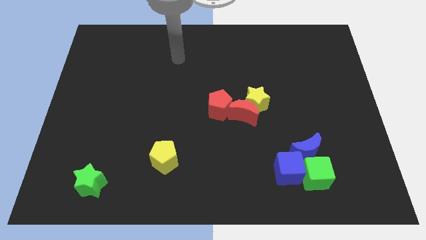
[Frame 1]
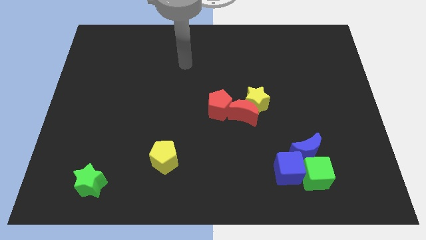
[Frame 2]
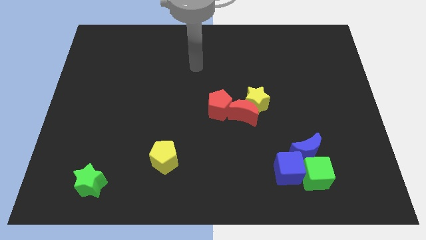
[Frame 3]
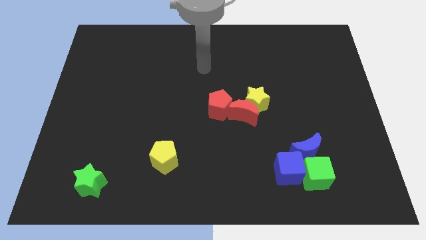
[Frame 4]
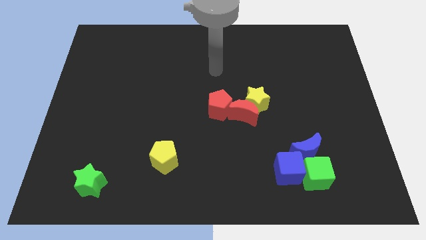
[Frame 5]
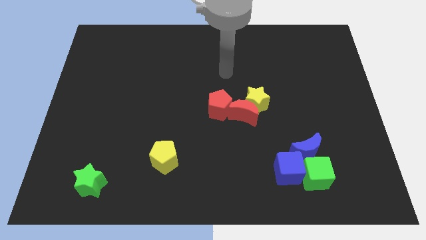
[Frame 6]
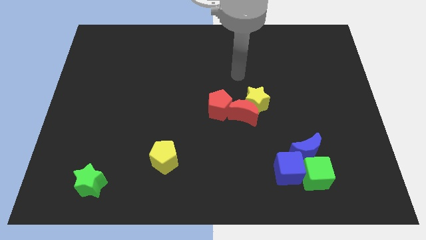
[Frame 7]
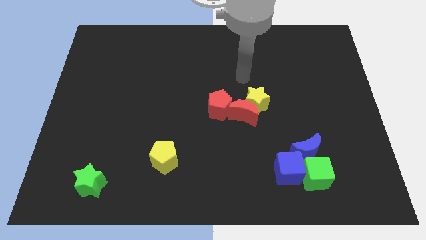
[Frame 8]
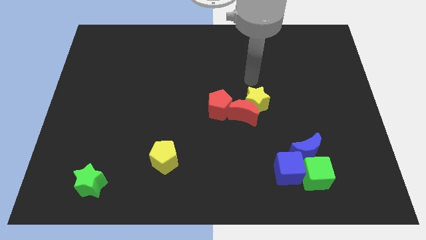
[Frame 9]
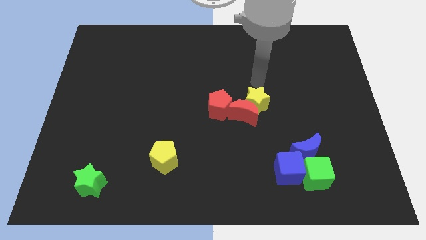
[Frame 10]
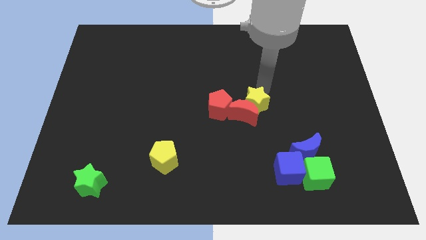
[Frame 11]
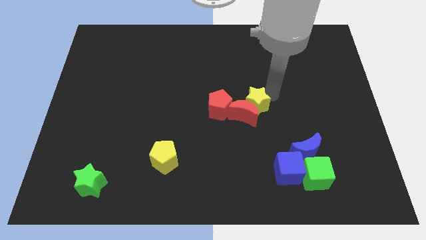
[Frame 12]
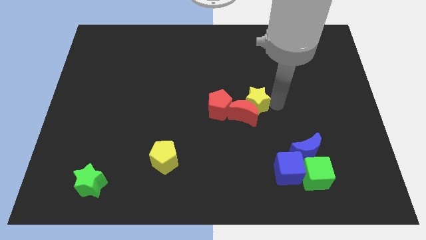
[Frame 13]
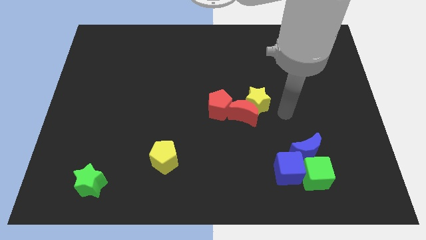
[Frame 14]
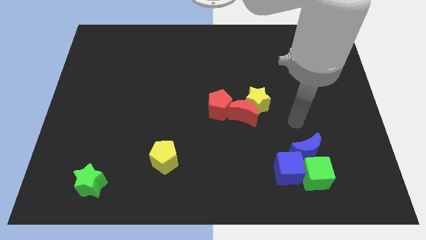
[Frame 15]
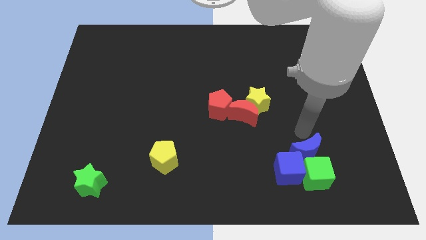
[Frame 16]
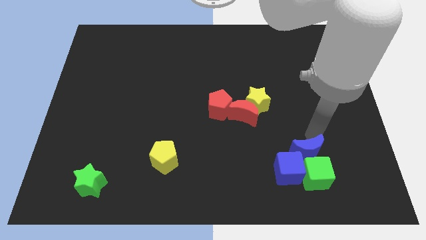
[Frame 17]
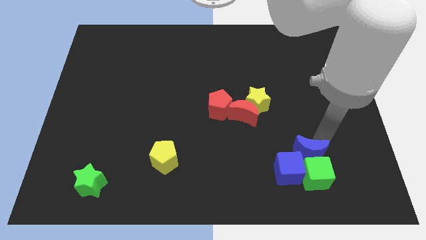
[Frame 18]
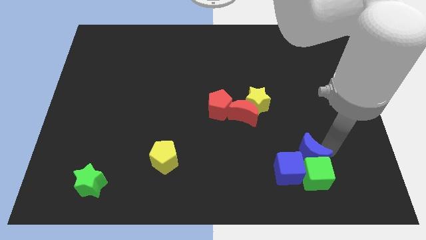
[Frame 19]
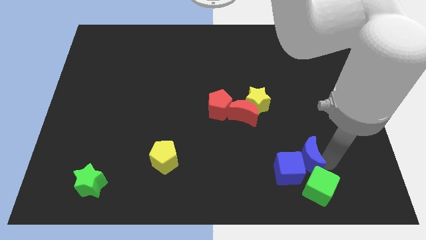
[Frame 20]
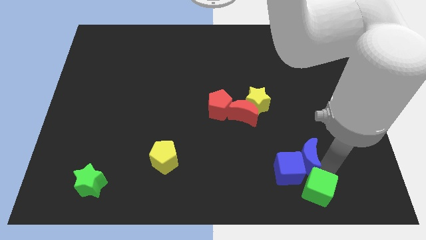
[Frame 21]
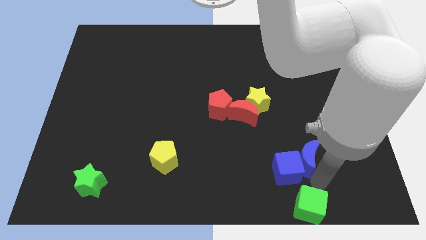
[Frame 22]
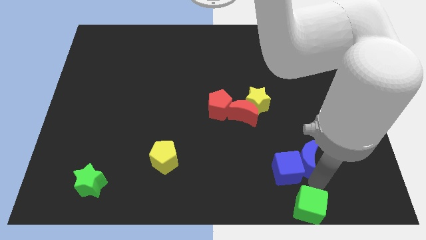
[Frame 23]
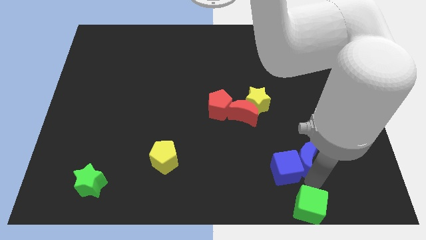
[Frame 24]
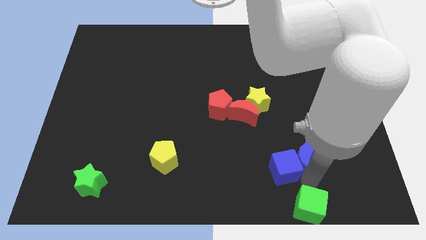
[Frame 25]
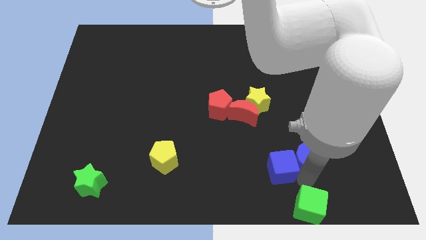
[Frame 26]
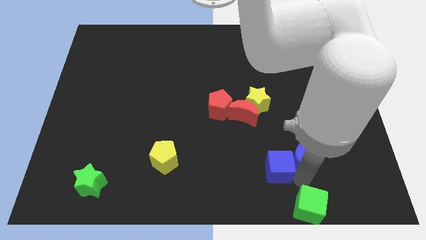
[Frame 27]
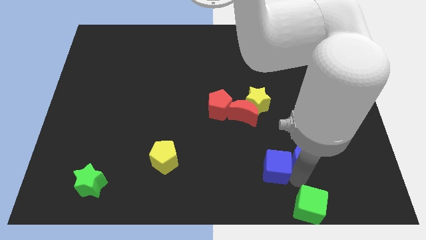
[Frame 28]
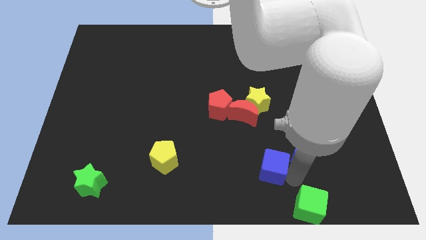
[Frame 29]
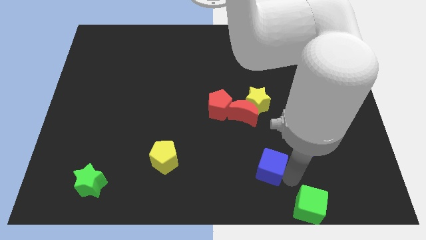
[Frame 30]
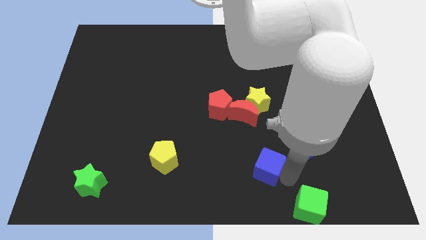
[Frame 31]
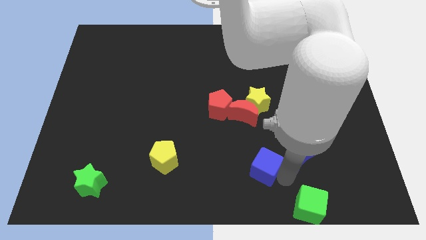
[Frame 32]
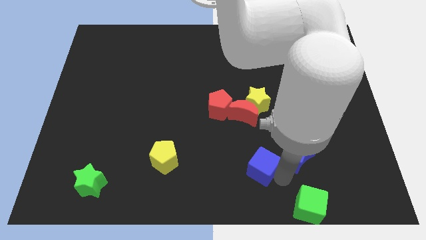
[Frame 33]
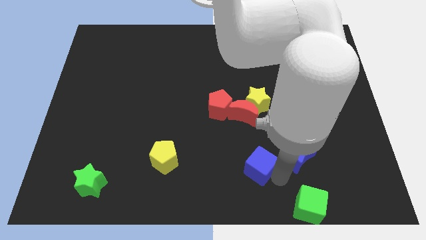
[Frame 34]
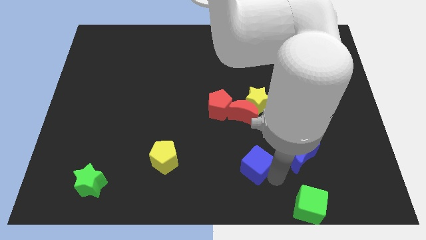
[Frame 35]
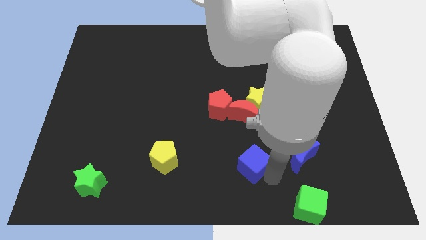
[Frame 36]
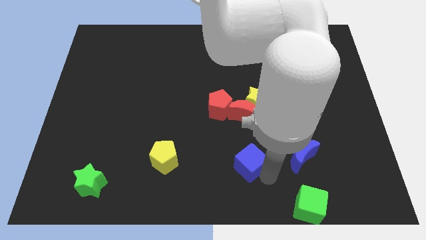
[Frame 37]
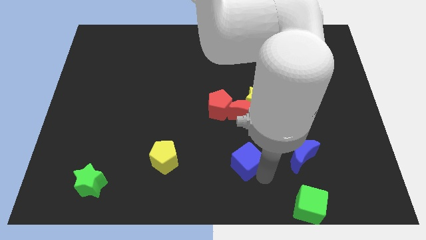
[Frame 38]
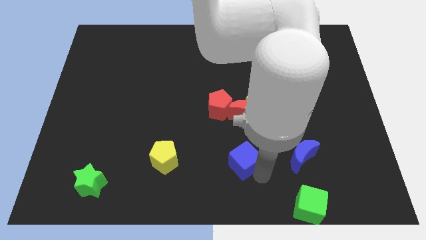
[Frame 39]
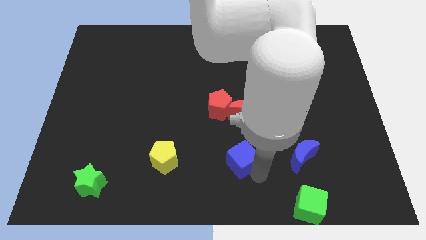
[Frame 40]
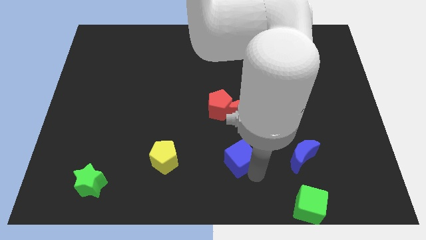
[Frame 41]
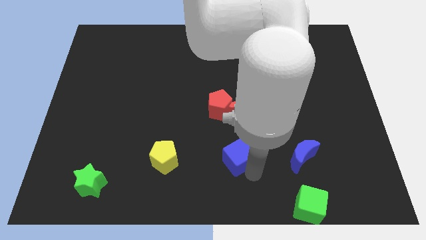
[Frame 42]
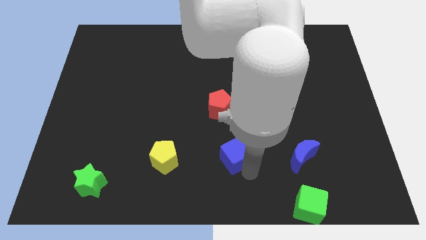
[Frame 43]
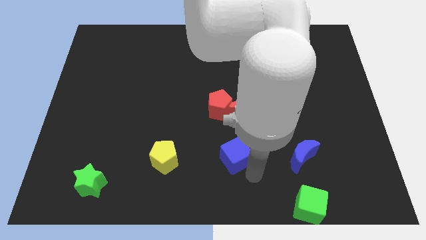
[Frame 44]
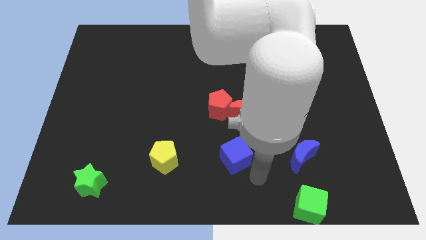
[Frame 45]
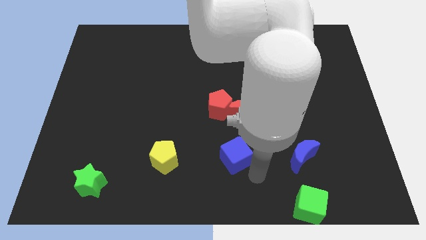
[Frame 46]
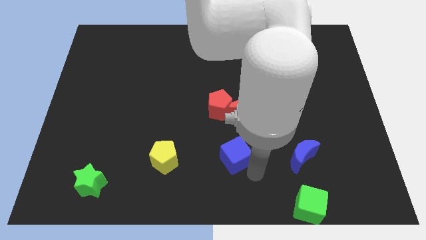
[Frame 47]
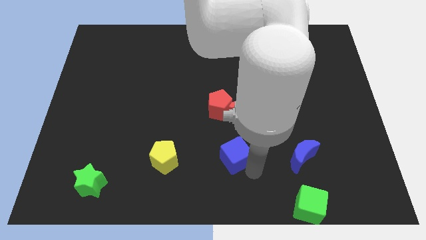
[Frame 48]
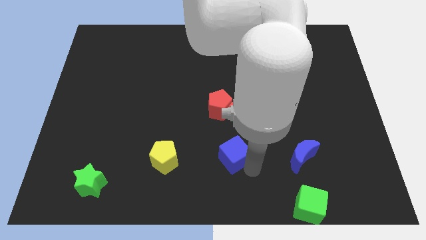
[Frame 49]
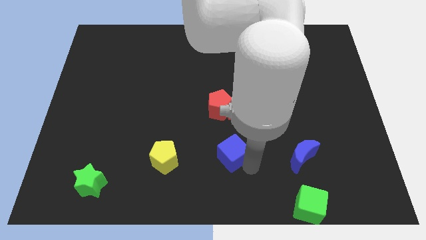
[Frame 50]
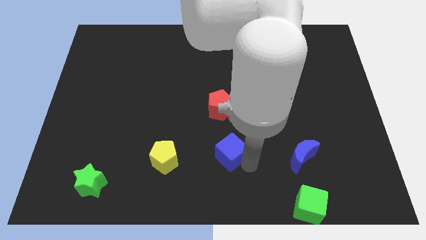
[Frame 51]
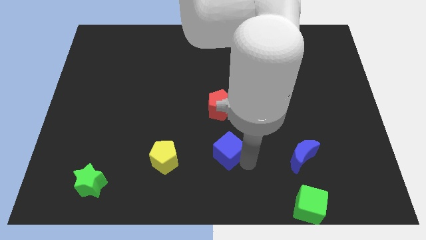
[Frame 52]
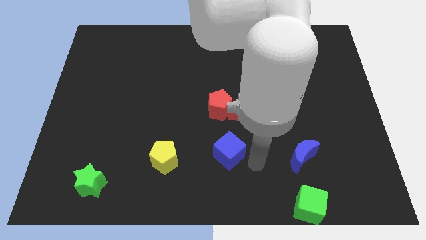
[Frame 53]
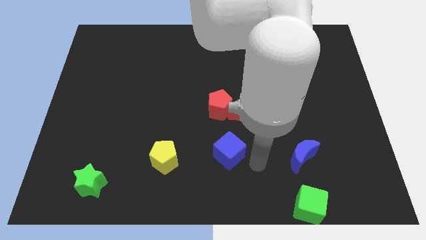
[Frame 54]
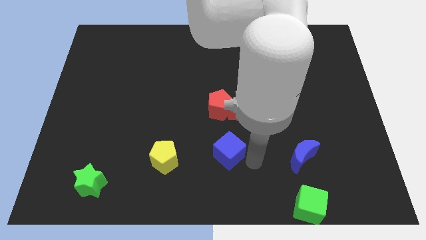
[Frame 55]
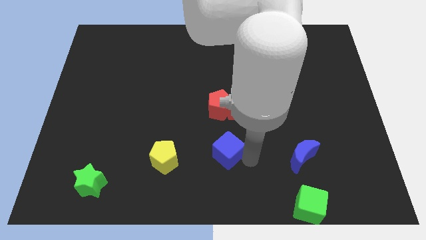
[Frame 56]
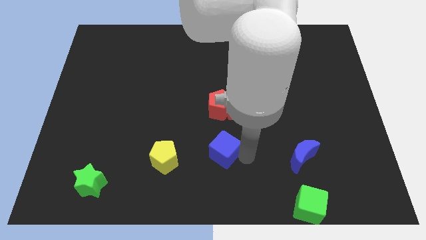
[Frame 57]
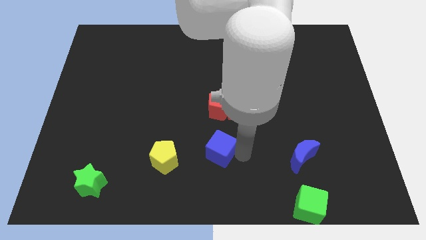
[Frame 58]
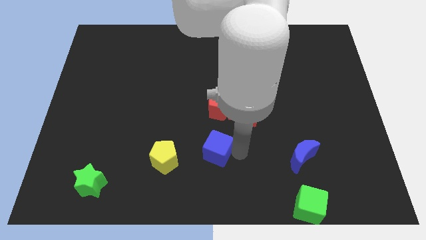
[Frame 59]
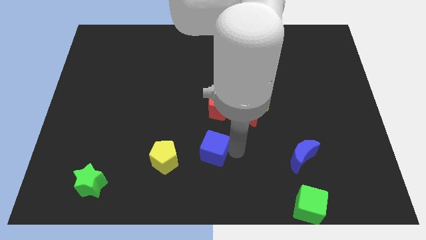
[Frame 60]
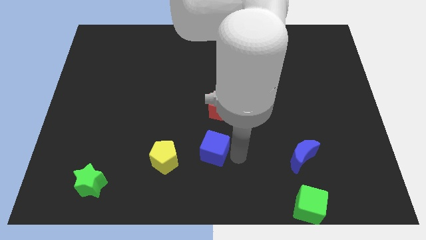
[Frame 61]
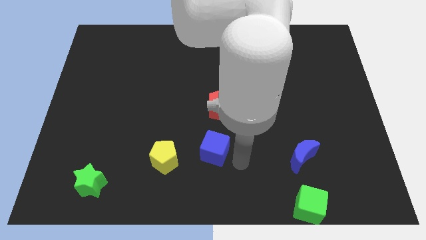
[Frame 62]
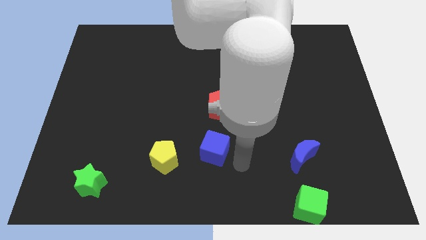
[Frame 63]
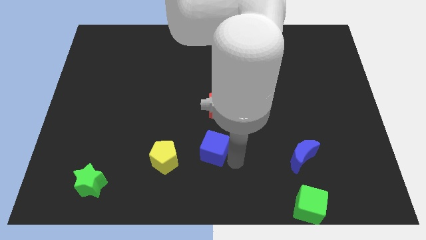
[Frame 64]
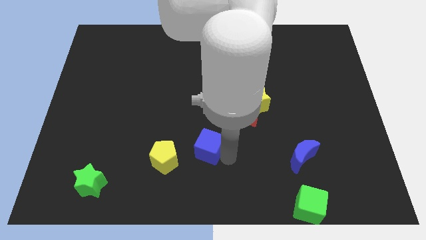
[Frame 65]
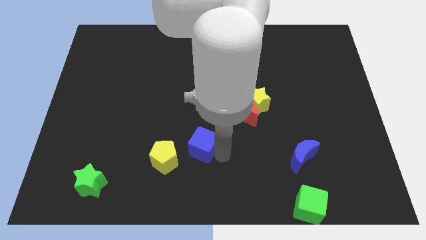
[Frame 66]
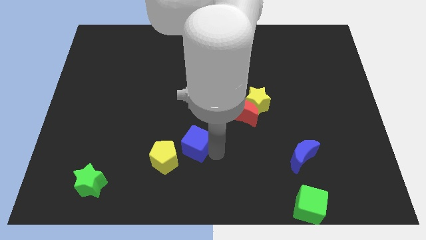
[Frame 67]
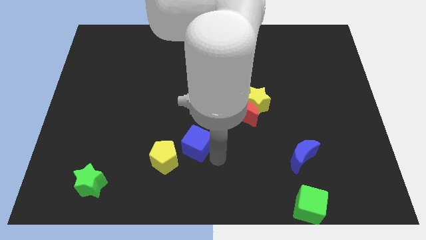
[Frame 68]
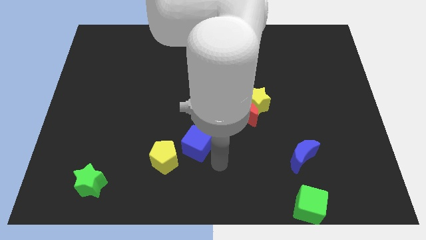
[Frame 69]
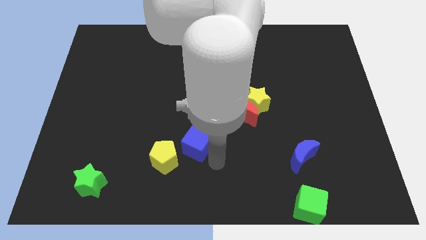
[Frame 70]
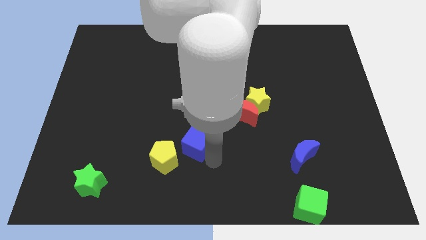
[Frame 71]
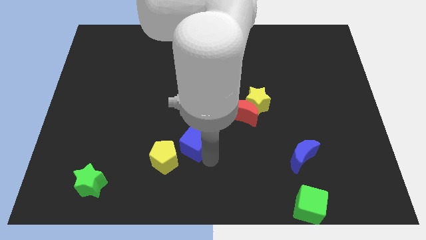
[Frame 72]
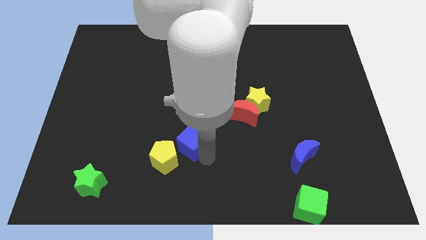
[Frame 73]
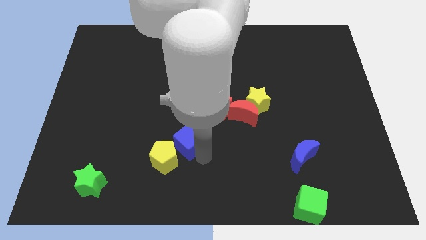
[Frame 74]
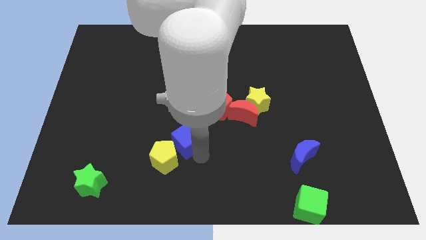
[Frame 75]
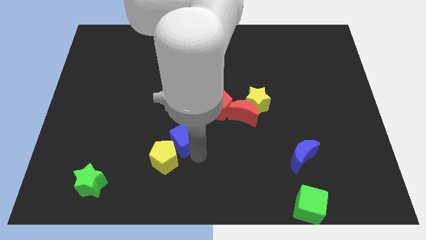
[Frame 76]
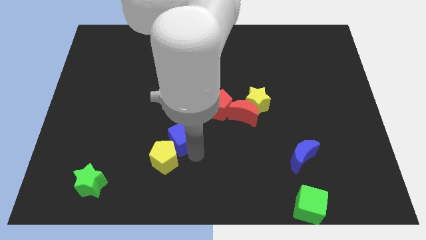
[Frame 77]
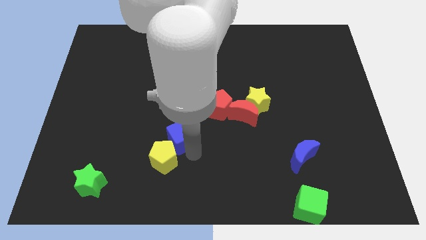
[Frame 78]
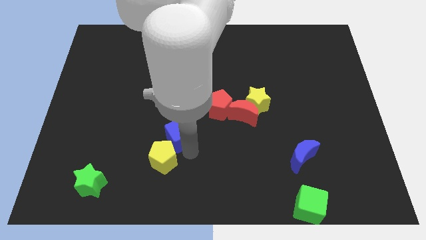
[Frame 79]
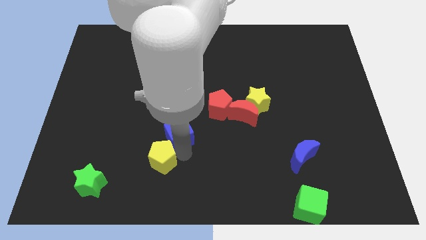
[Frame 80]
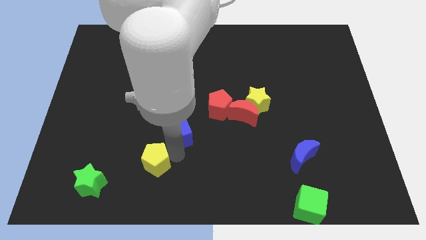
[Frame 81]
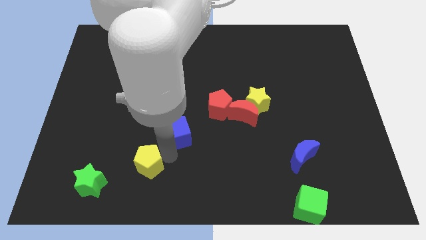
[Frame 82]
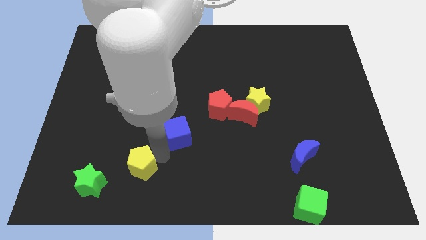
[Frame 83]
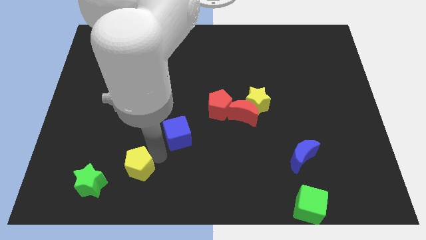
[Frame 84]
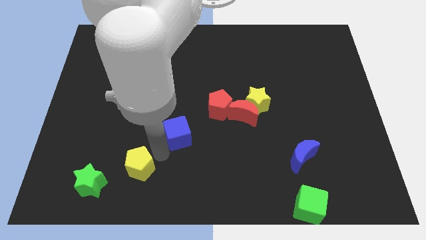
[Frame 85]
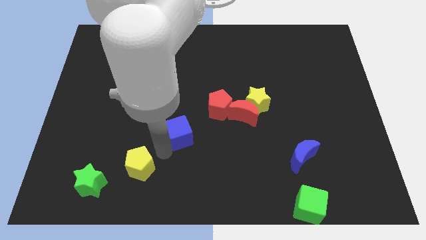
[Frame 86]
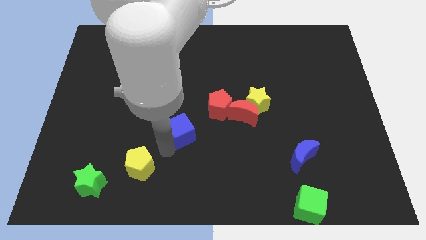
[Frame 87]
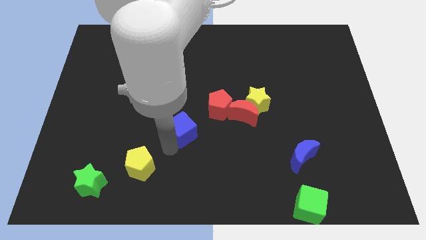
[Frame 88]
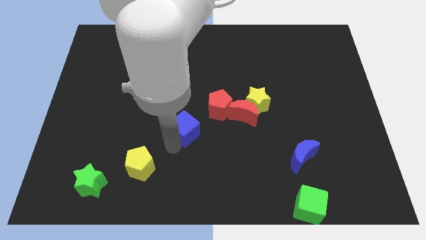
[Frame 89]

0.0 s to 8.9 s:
push the blue cube to the left side of the red moon
